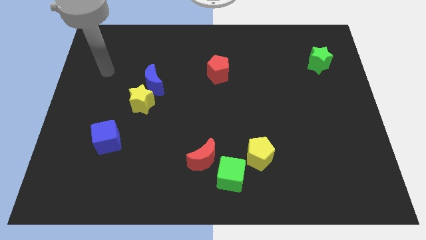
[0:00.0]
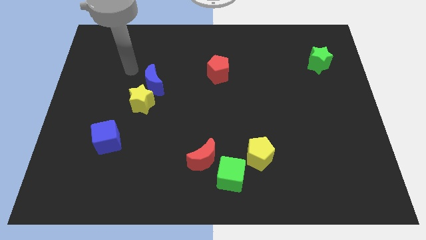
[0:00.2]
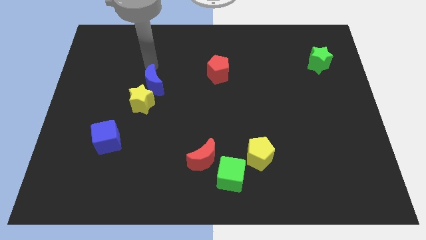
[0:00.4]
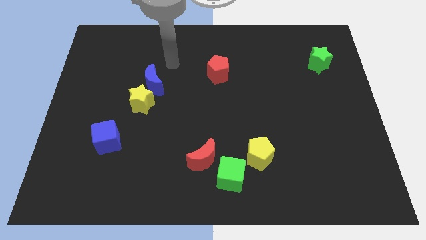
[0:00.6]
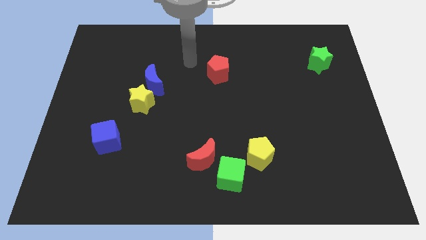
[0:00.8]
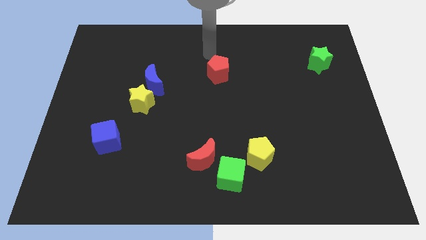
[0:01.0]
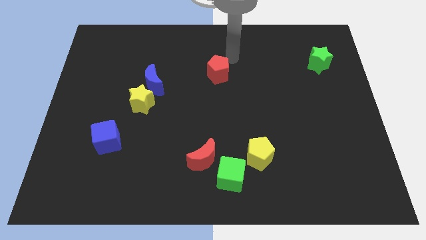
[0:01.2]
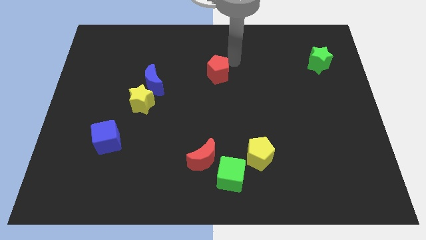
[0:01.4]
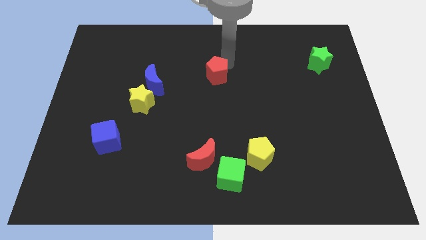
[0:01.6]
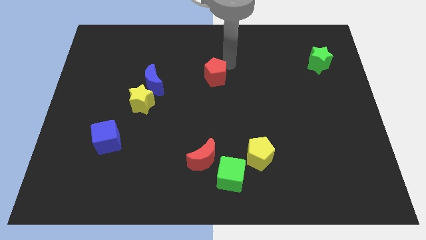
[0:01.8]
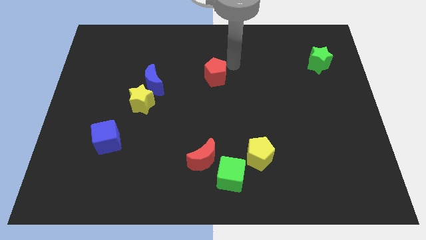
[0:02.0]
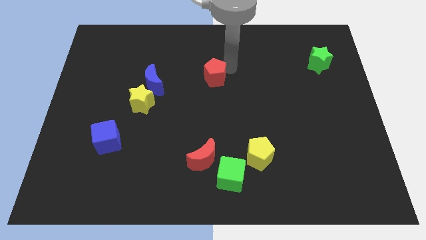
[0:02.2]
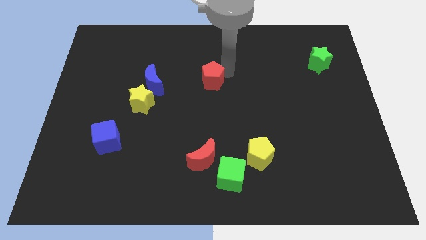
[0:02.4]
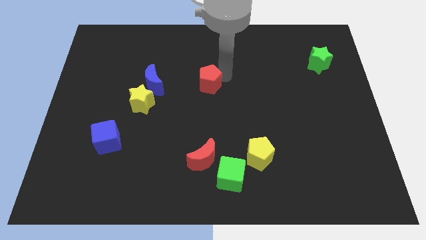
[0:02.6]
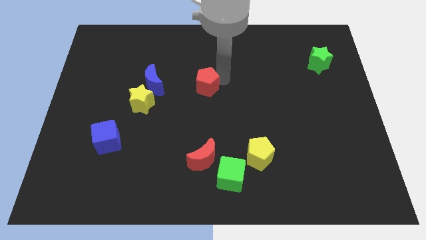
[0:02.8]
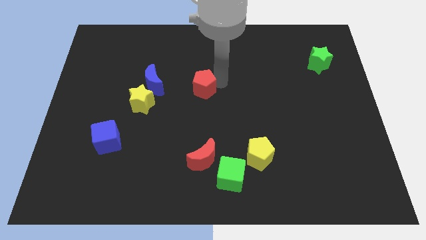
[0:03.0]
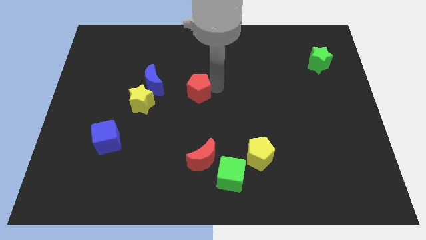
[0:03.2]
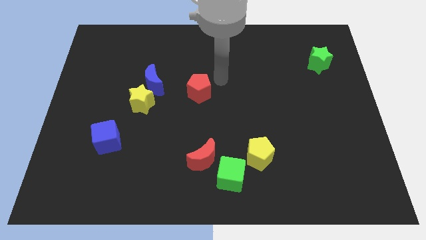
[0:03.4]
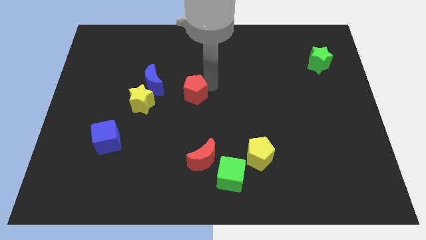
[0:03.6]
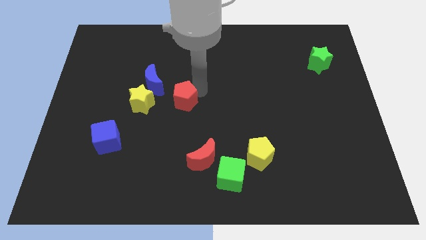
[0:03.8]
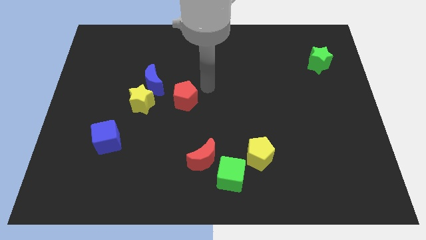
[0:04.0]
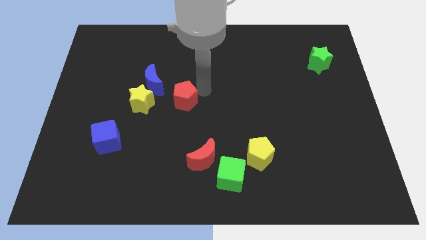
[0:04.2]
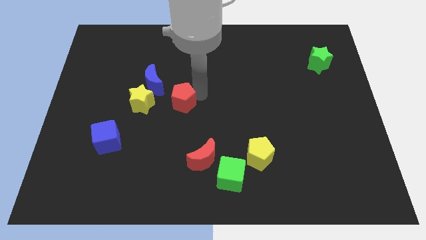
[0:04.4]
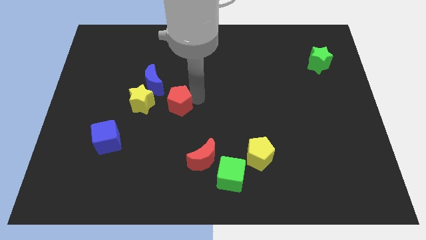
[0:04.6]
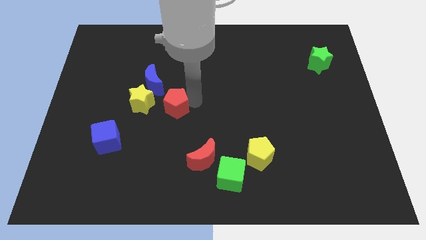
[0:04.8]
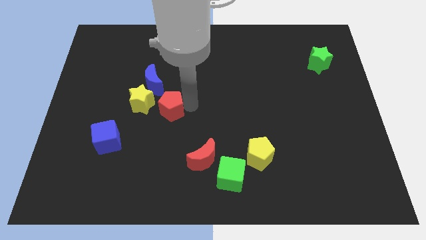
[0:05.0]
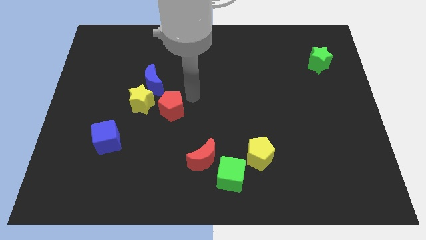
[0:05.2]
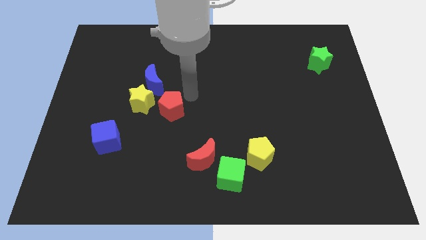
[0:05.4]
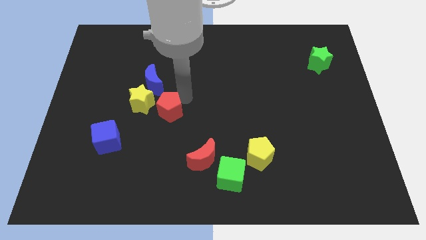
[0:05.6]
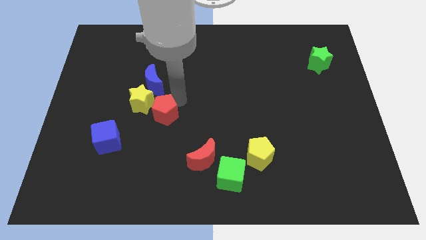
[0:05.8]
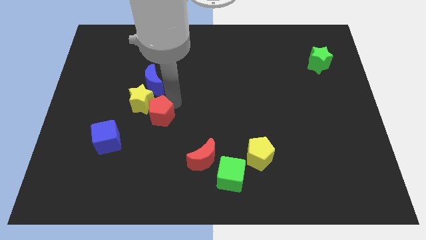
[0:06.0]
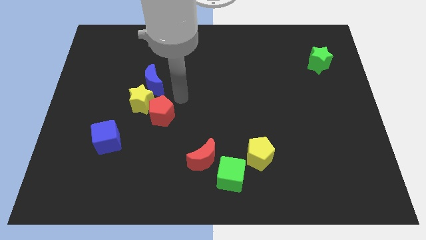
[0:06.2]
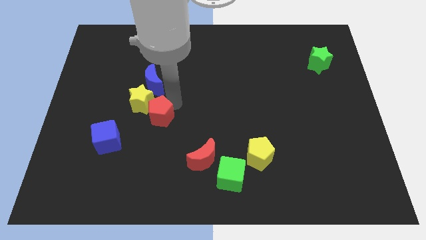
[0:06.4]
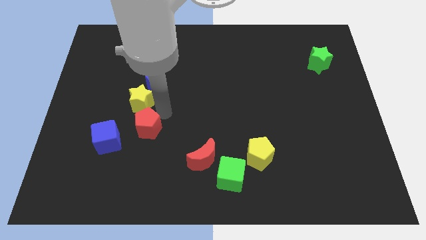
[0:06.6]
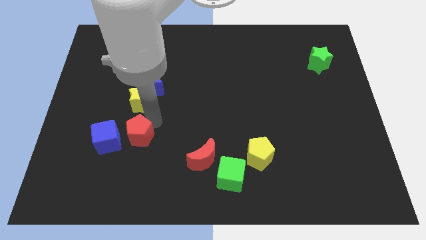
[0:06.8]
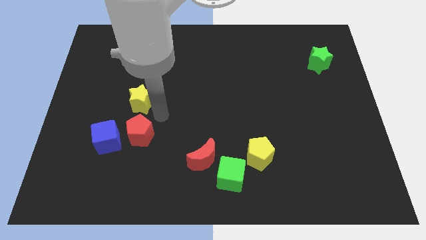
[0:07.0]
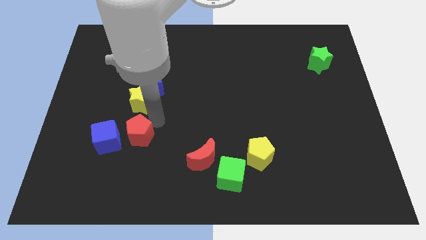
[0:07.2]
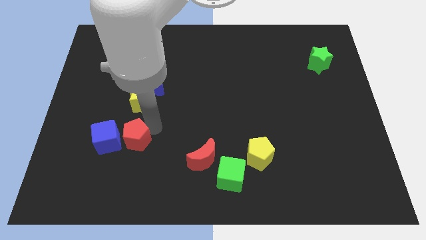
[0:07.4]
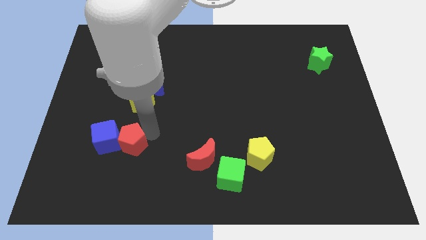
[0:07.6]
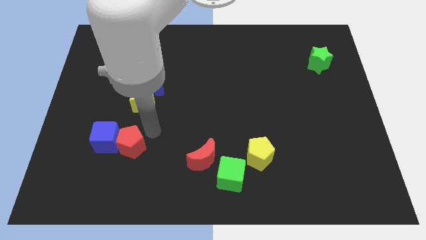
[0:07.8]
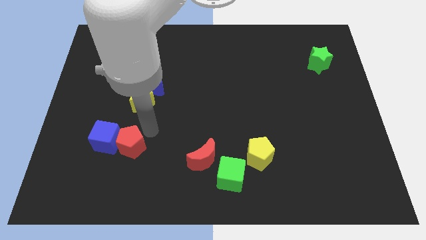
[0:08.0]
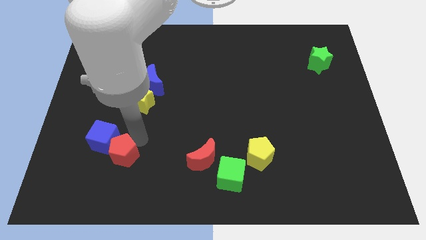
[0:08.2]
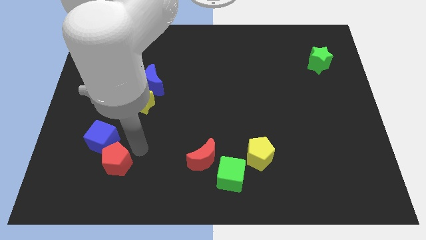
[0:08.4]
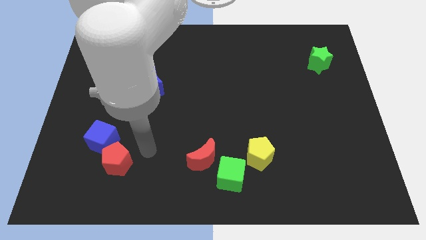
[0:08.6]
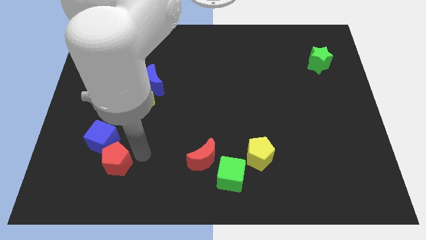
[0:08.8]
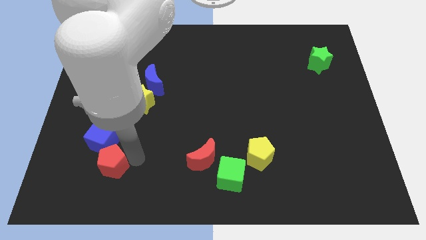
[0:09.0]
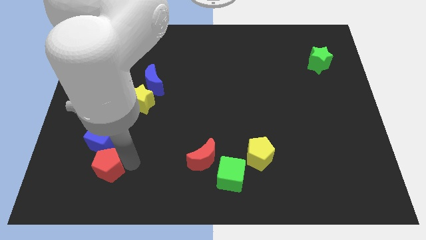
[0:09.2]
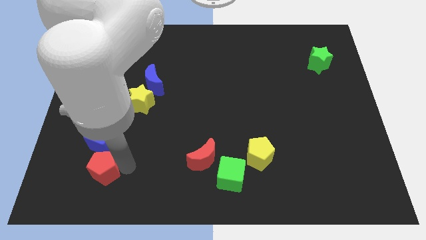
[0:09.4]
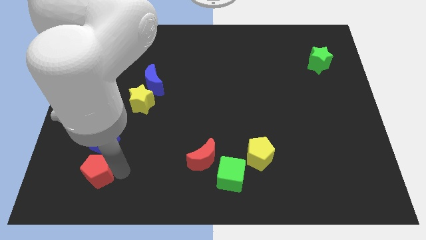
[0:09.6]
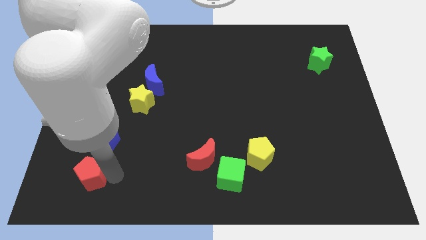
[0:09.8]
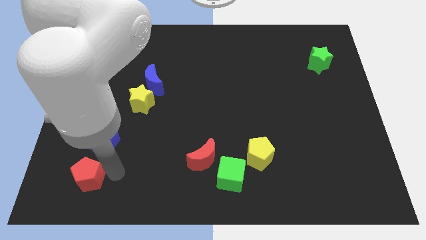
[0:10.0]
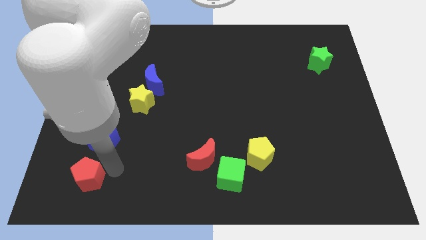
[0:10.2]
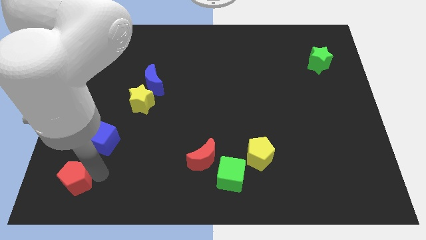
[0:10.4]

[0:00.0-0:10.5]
slide the red pentagon to the lower left corner

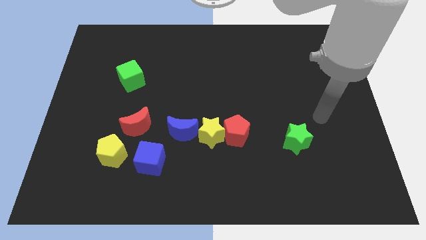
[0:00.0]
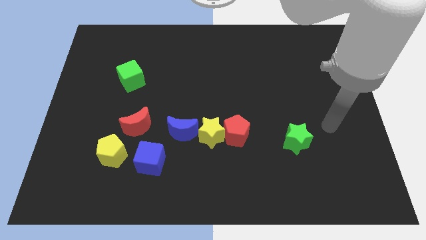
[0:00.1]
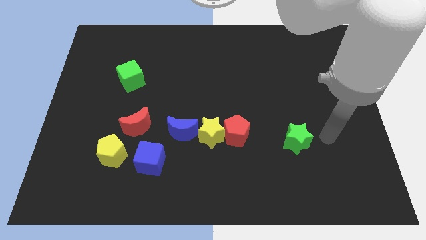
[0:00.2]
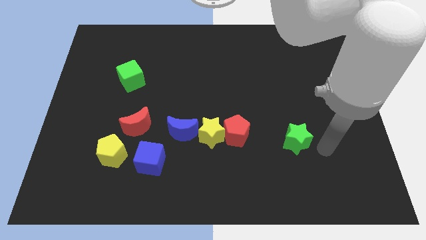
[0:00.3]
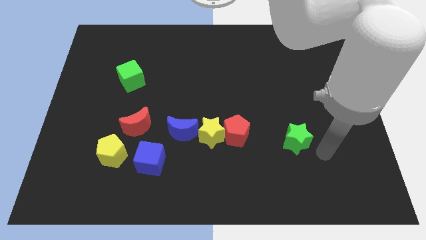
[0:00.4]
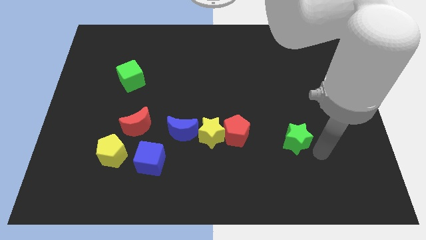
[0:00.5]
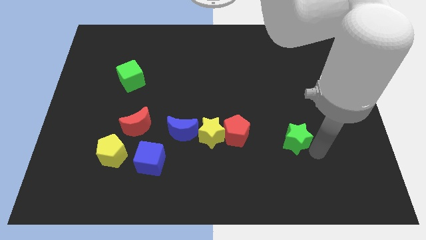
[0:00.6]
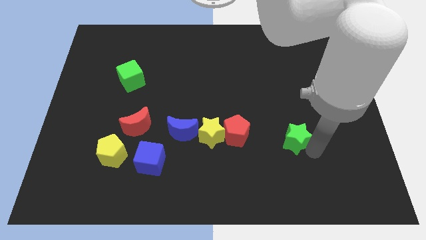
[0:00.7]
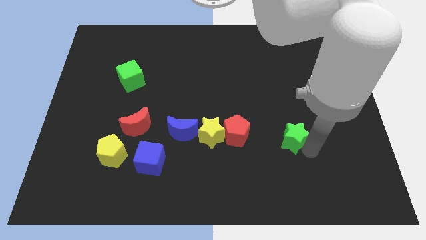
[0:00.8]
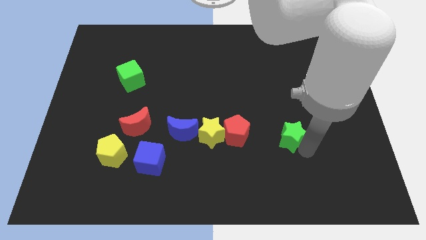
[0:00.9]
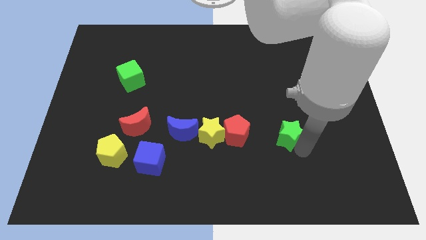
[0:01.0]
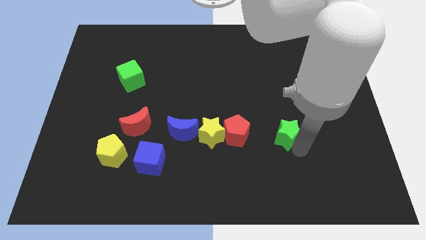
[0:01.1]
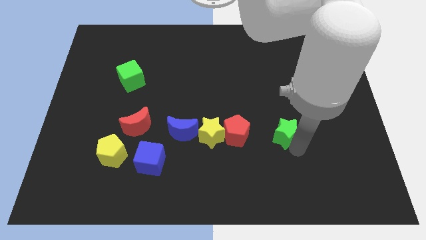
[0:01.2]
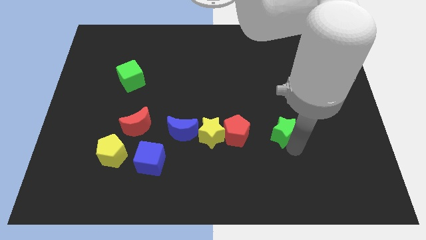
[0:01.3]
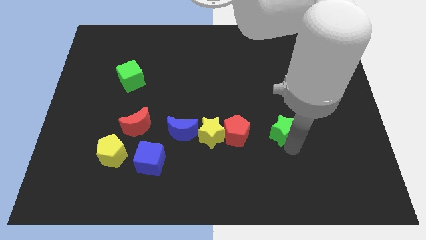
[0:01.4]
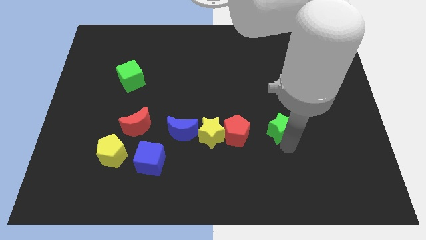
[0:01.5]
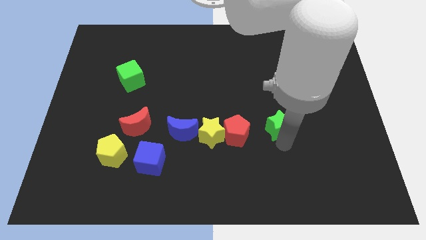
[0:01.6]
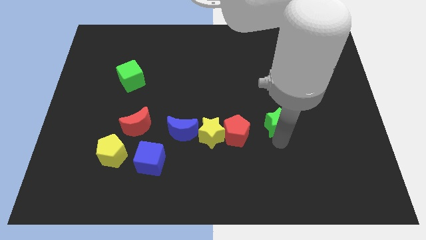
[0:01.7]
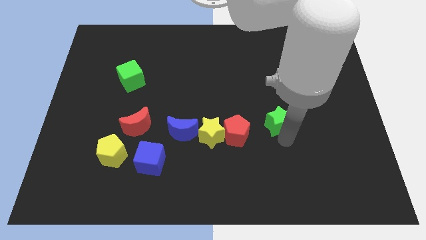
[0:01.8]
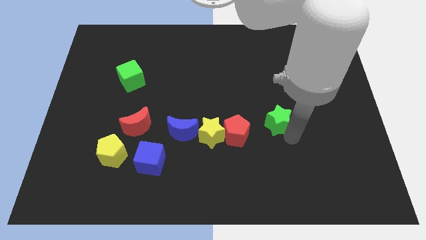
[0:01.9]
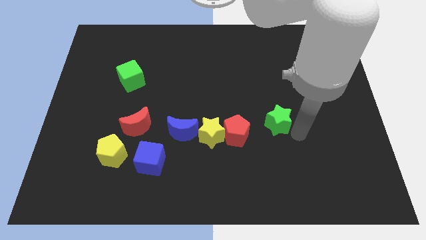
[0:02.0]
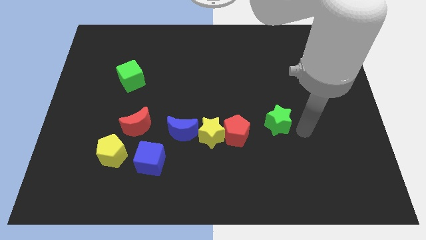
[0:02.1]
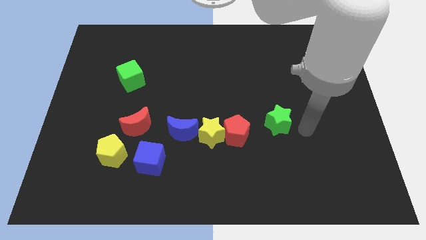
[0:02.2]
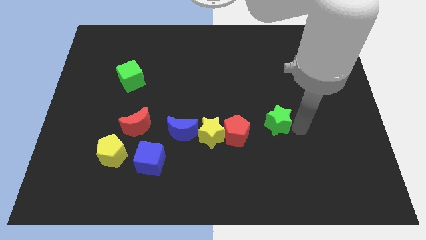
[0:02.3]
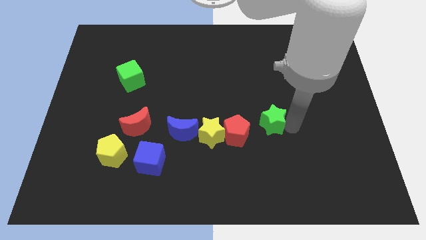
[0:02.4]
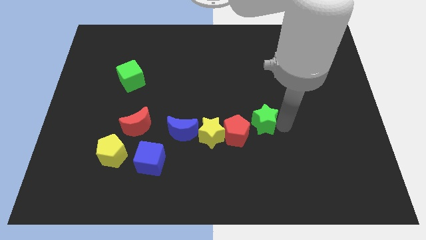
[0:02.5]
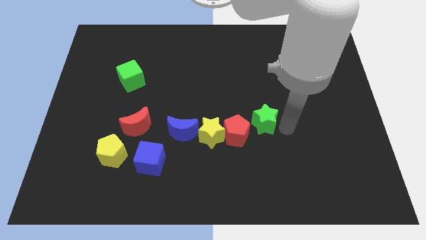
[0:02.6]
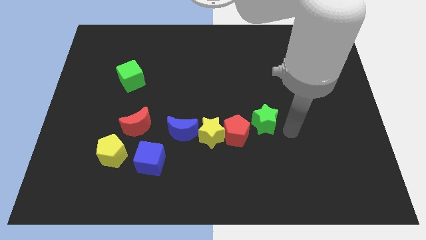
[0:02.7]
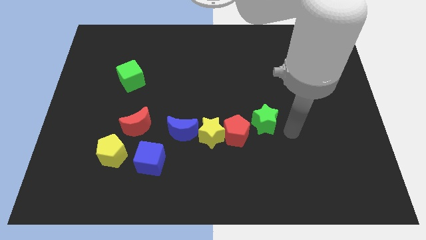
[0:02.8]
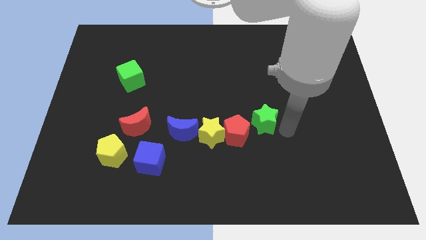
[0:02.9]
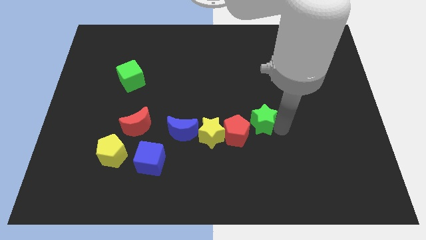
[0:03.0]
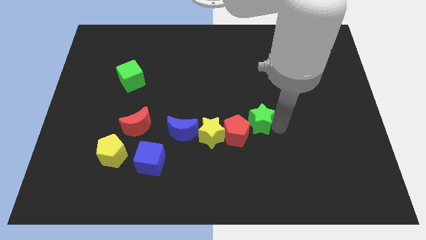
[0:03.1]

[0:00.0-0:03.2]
slide the green star to the center of the board

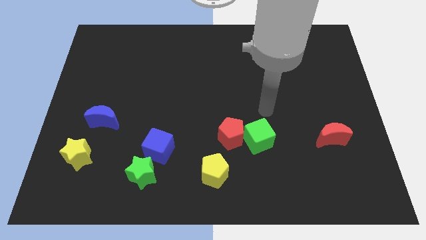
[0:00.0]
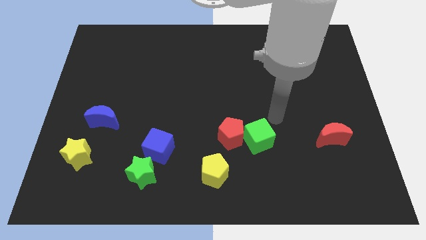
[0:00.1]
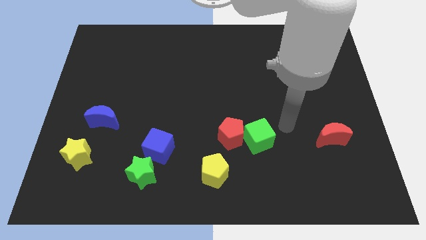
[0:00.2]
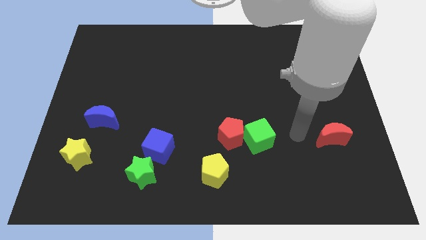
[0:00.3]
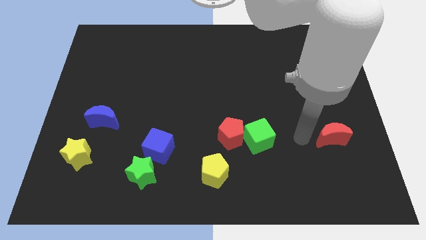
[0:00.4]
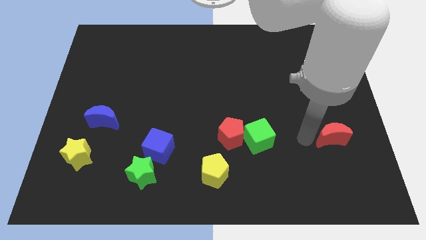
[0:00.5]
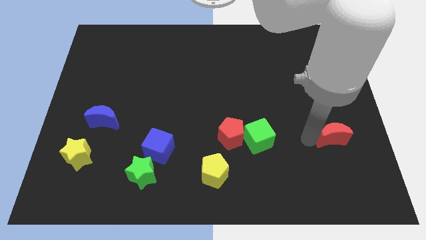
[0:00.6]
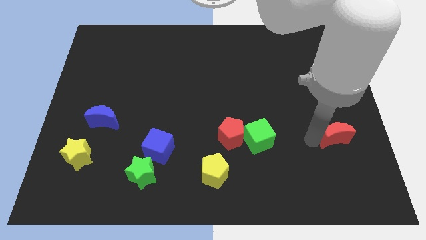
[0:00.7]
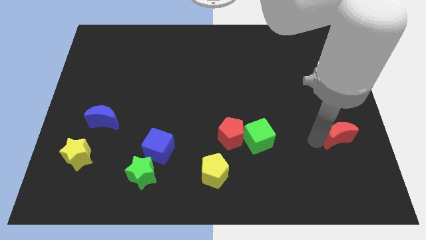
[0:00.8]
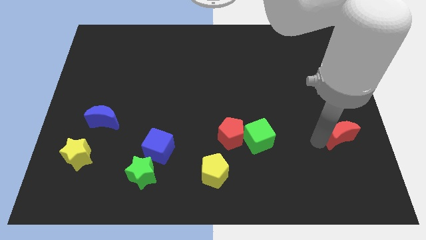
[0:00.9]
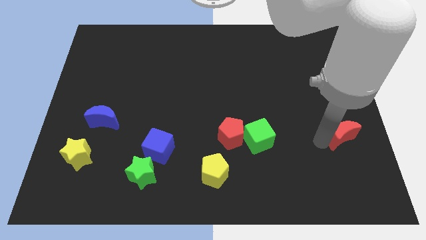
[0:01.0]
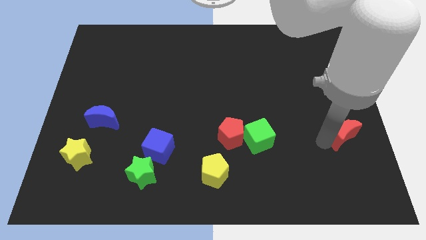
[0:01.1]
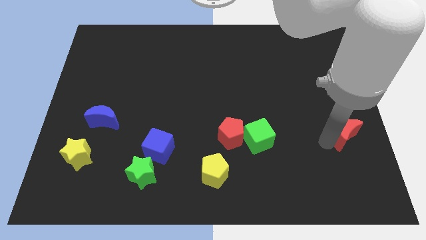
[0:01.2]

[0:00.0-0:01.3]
slide the red moon to the right side of the board
